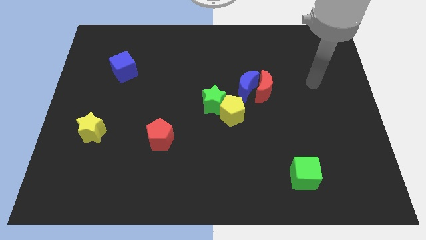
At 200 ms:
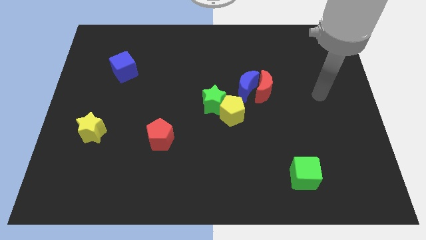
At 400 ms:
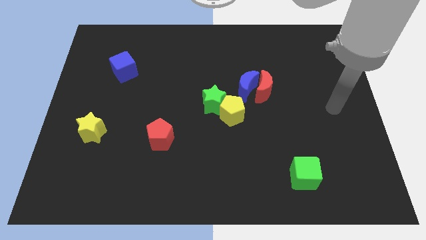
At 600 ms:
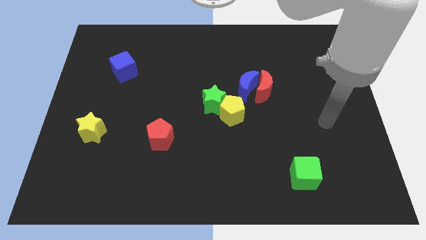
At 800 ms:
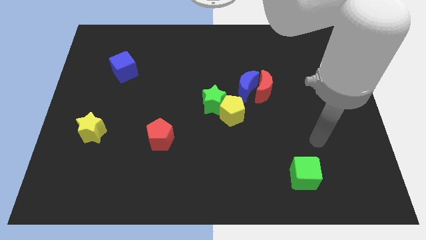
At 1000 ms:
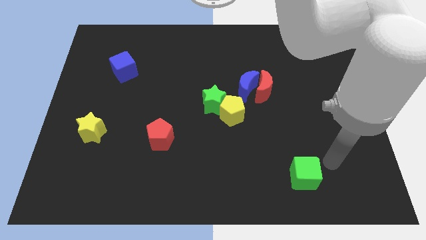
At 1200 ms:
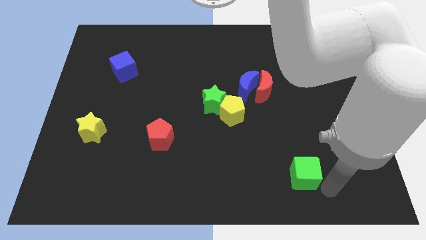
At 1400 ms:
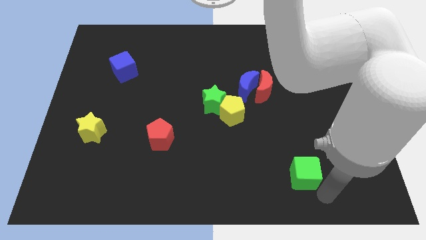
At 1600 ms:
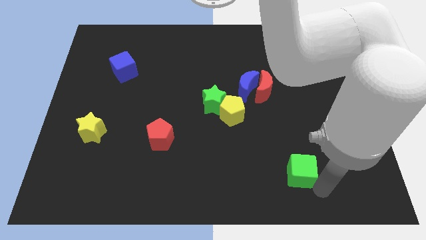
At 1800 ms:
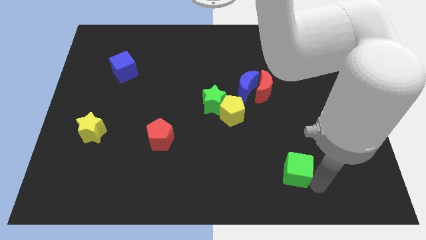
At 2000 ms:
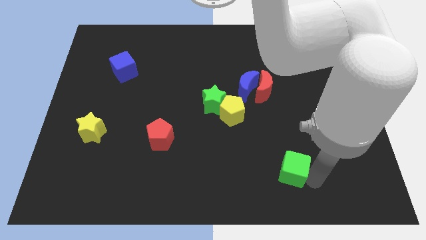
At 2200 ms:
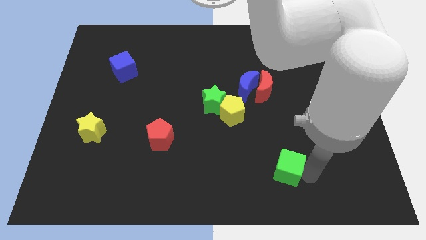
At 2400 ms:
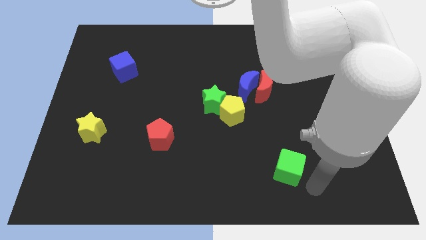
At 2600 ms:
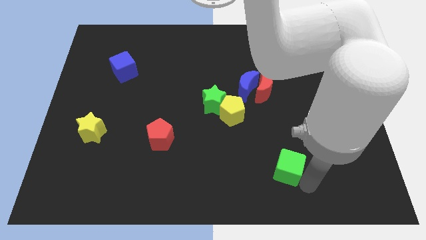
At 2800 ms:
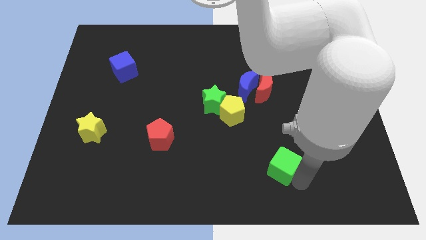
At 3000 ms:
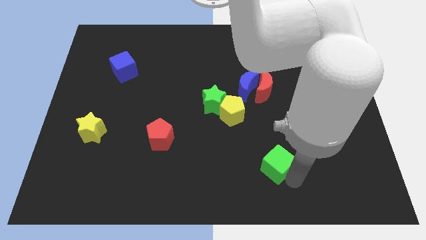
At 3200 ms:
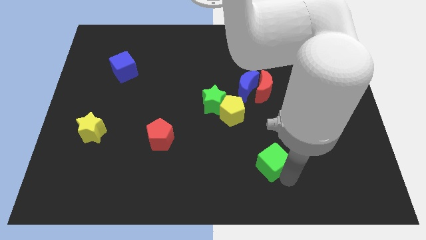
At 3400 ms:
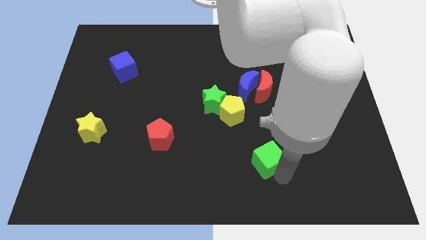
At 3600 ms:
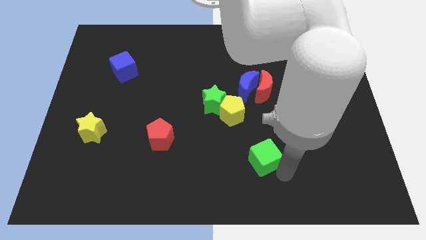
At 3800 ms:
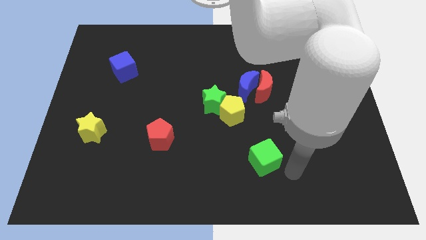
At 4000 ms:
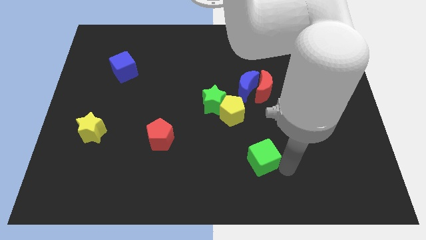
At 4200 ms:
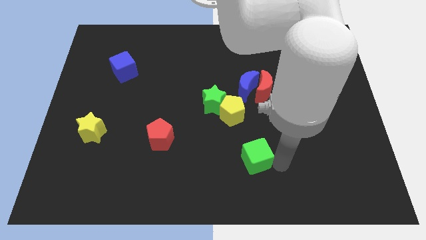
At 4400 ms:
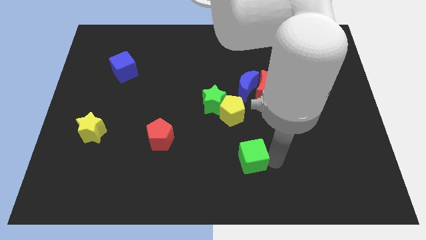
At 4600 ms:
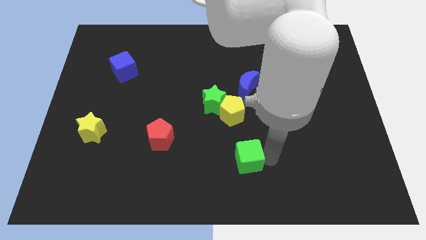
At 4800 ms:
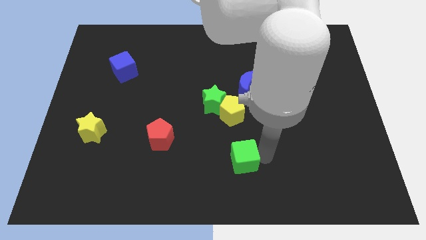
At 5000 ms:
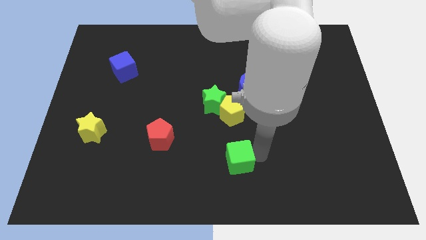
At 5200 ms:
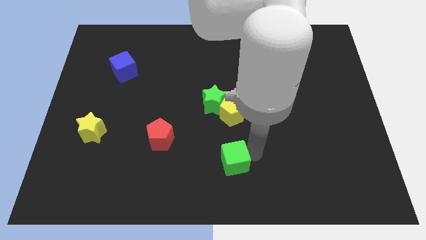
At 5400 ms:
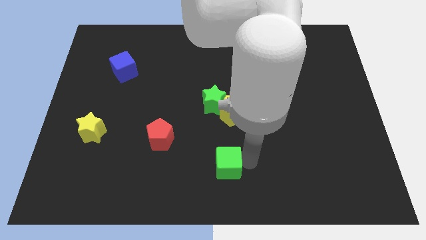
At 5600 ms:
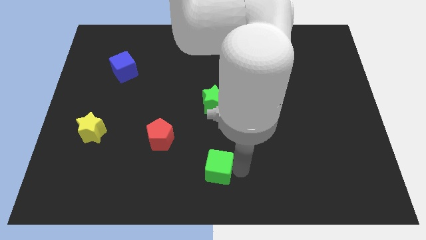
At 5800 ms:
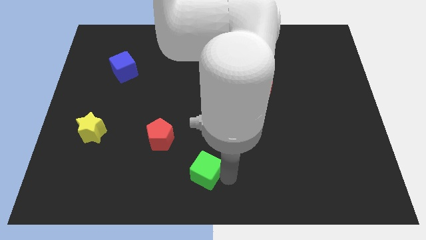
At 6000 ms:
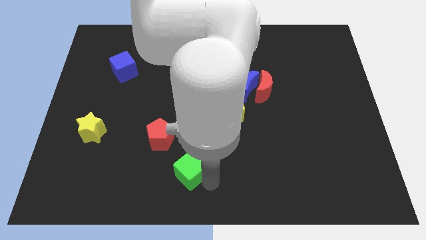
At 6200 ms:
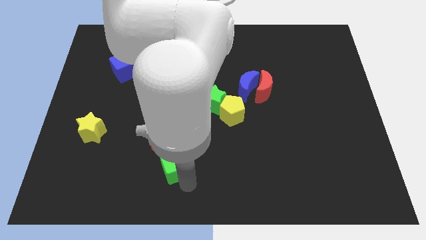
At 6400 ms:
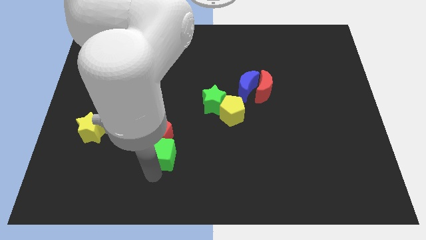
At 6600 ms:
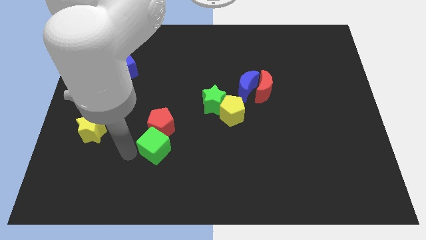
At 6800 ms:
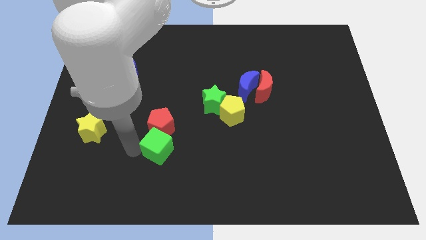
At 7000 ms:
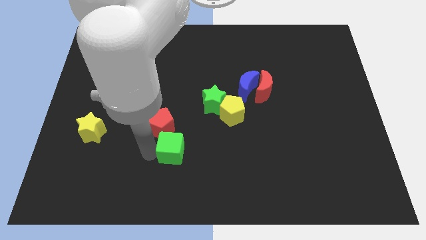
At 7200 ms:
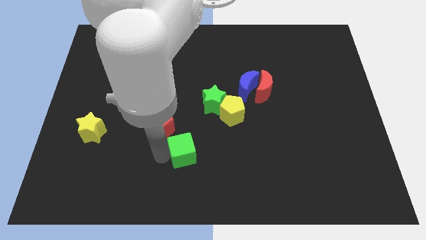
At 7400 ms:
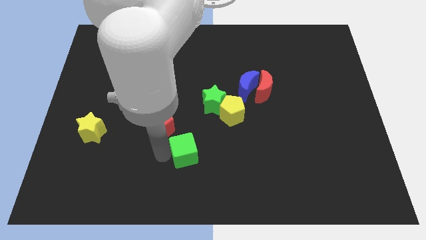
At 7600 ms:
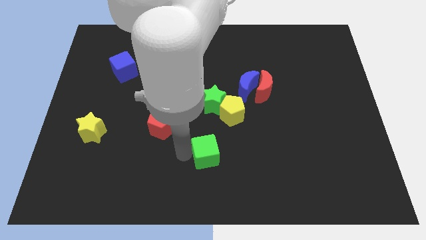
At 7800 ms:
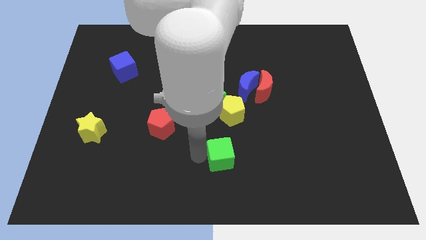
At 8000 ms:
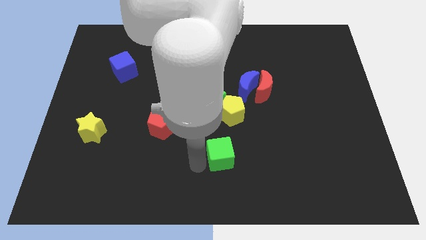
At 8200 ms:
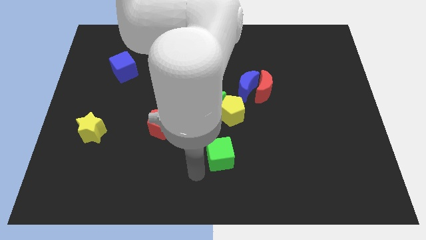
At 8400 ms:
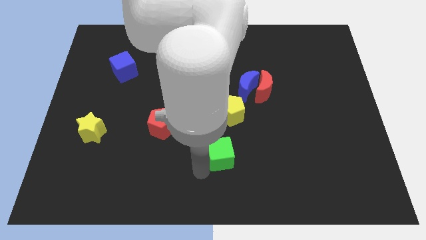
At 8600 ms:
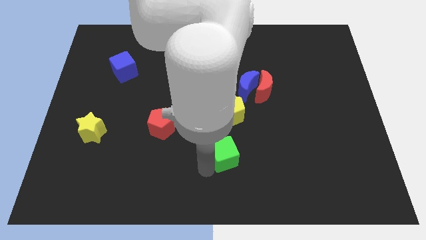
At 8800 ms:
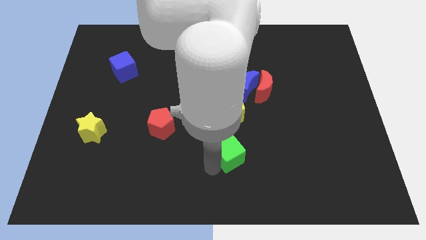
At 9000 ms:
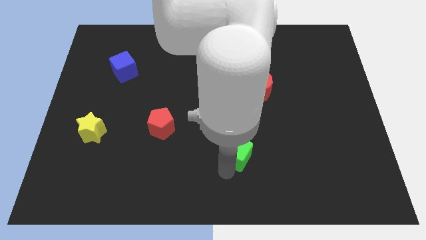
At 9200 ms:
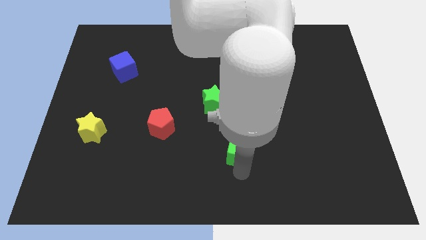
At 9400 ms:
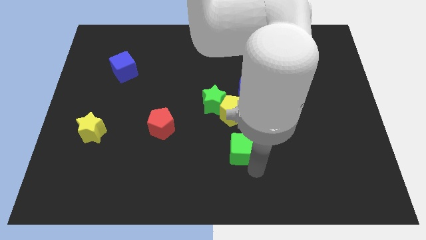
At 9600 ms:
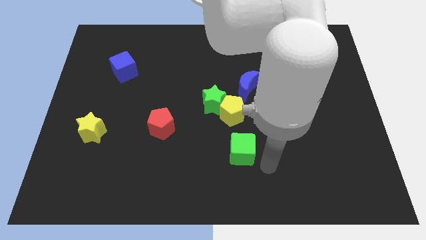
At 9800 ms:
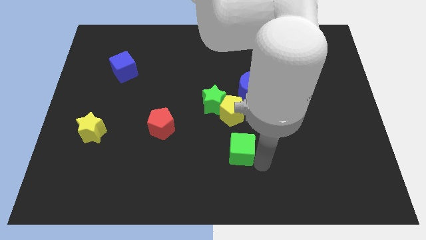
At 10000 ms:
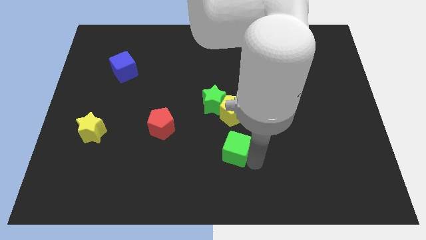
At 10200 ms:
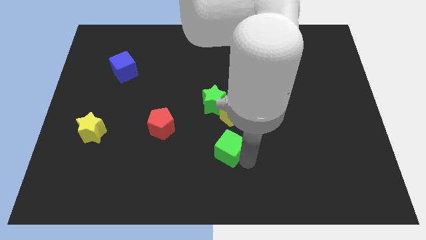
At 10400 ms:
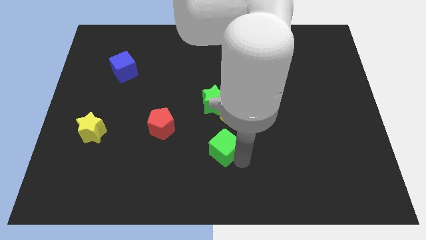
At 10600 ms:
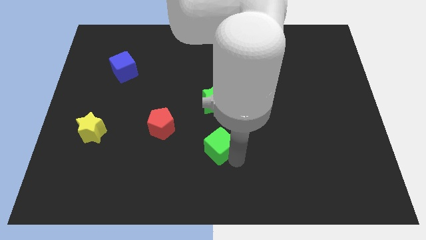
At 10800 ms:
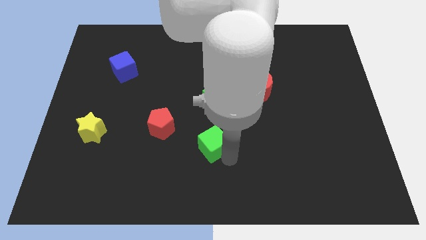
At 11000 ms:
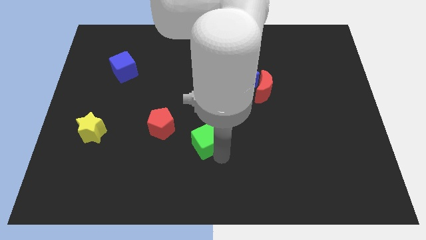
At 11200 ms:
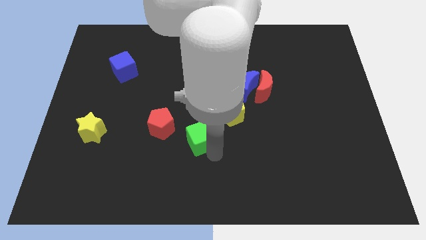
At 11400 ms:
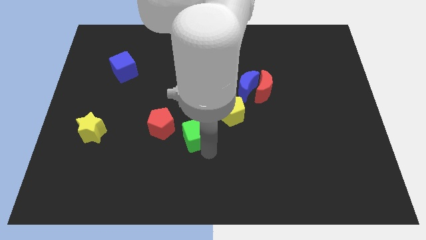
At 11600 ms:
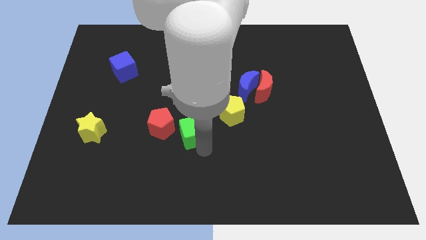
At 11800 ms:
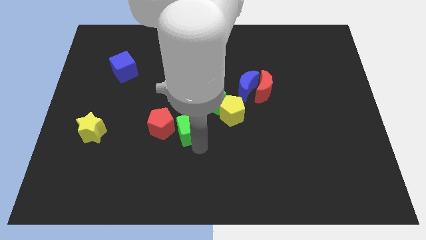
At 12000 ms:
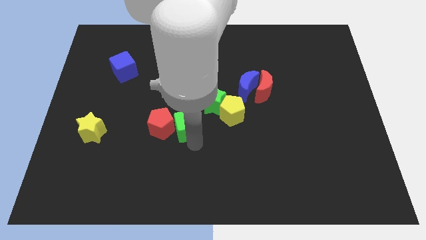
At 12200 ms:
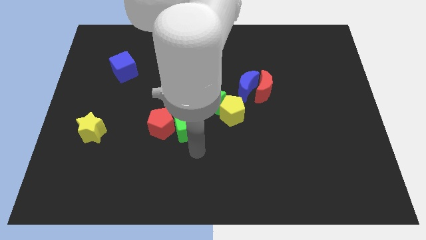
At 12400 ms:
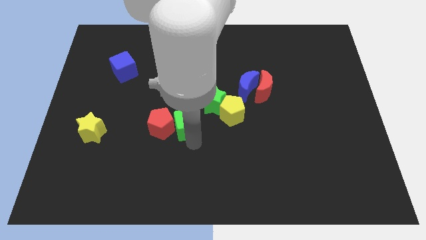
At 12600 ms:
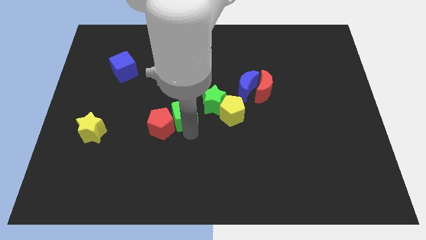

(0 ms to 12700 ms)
push the green cube just left of the green star
